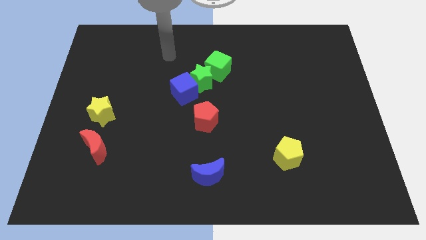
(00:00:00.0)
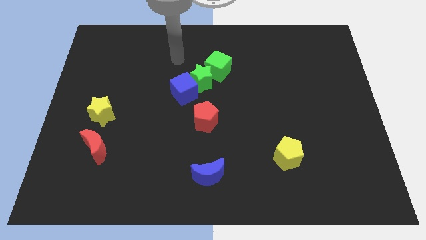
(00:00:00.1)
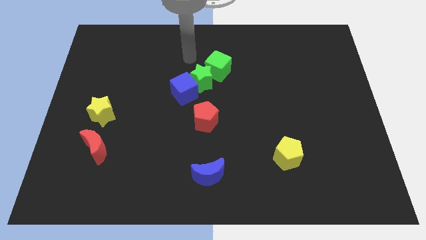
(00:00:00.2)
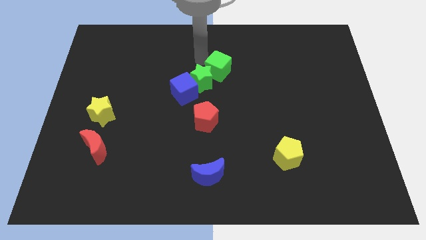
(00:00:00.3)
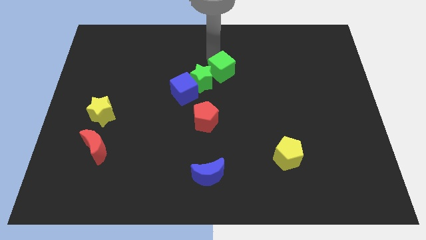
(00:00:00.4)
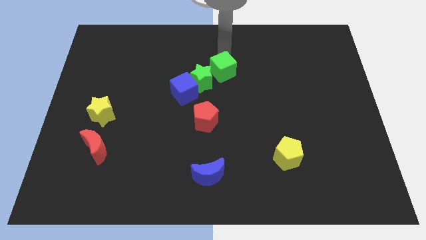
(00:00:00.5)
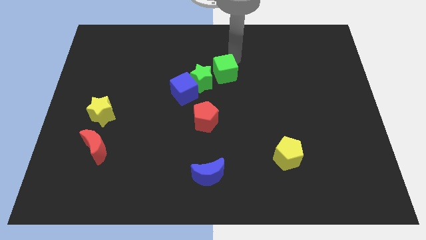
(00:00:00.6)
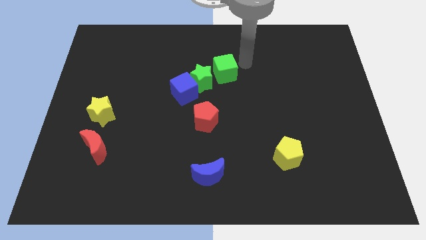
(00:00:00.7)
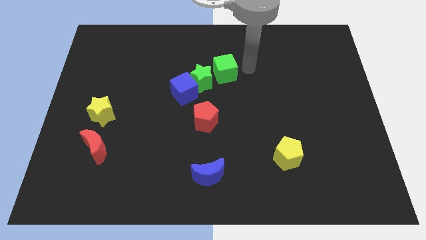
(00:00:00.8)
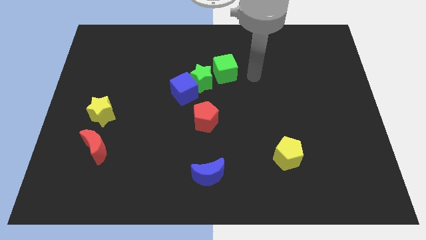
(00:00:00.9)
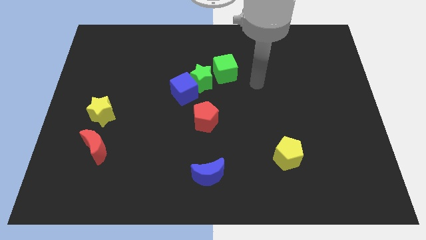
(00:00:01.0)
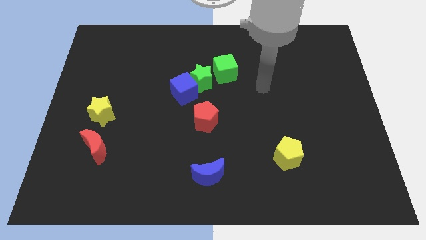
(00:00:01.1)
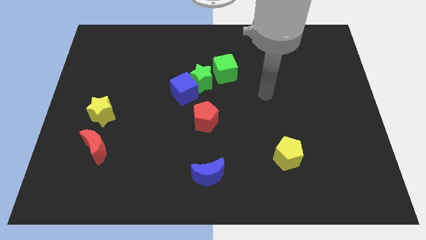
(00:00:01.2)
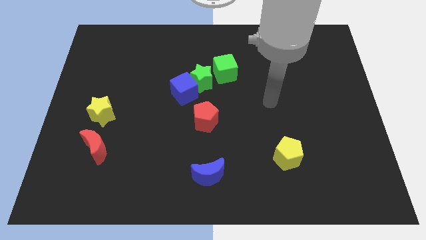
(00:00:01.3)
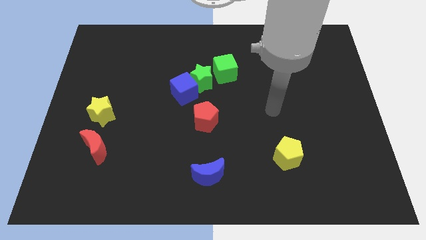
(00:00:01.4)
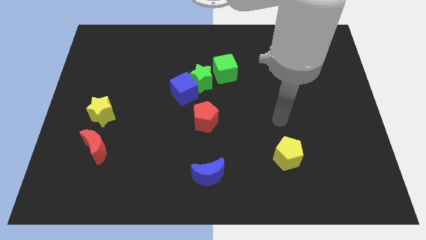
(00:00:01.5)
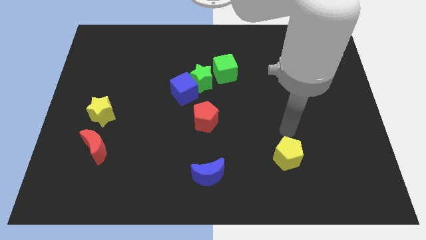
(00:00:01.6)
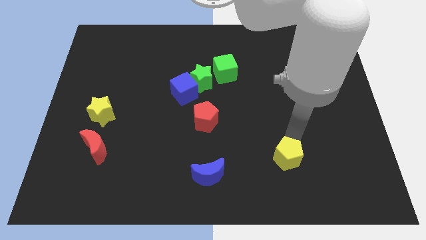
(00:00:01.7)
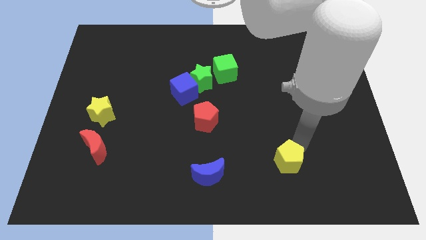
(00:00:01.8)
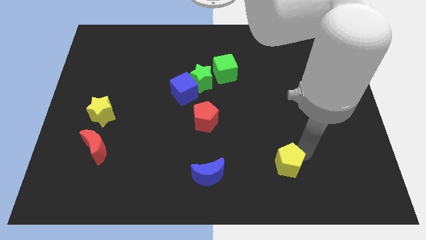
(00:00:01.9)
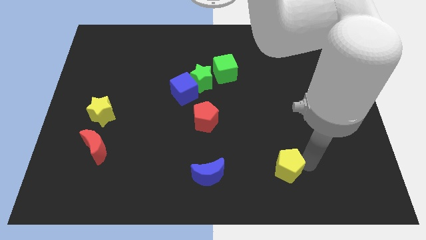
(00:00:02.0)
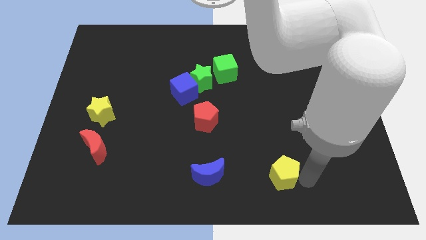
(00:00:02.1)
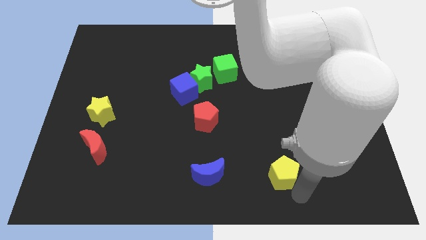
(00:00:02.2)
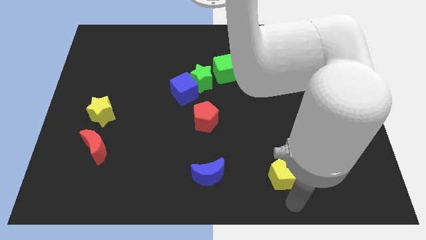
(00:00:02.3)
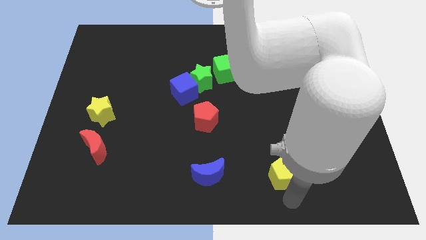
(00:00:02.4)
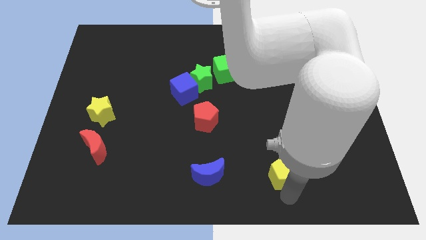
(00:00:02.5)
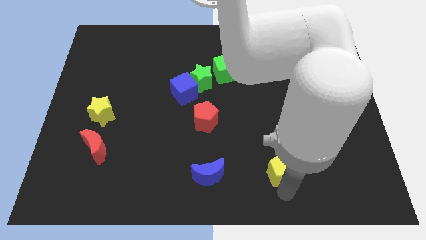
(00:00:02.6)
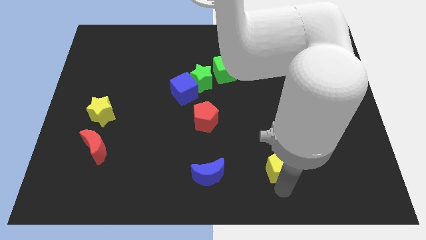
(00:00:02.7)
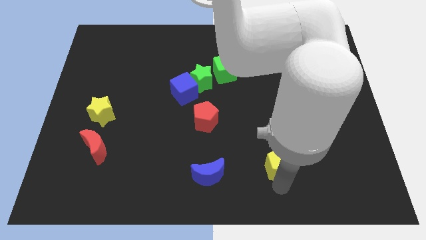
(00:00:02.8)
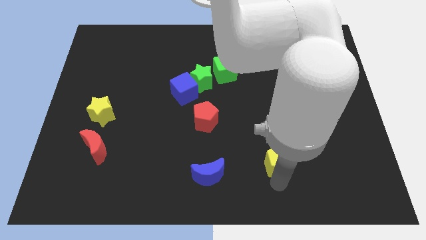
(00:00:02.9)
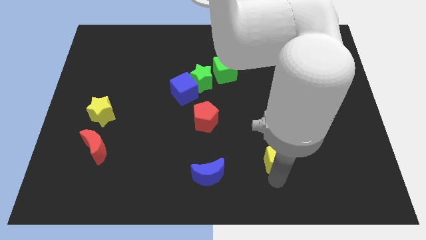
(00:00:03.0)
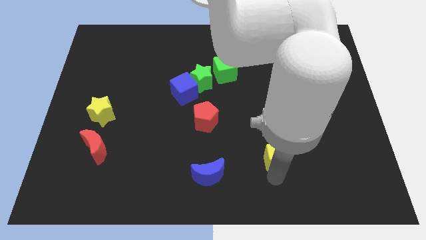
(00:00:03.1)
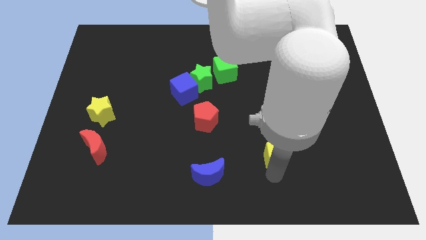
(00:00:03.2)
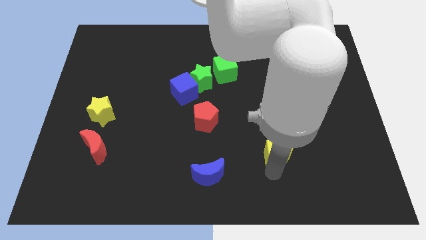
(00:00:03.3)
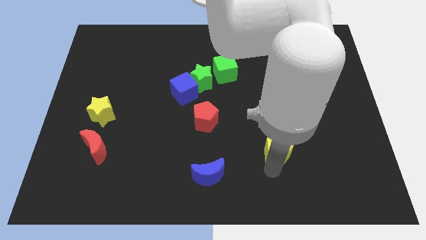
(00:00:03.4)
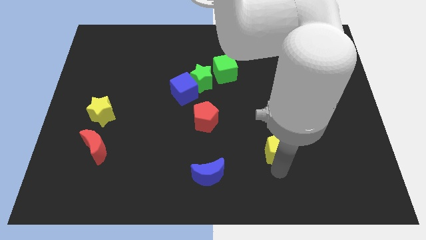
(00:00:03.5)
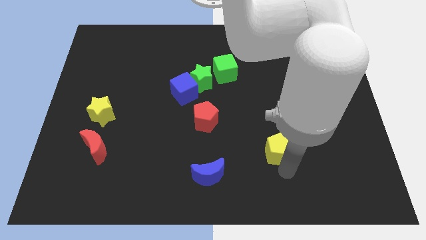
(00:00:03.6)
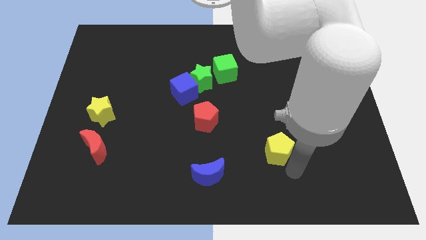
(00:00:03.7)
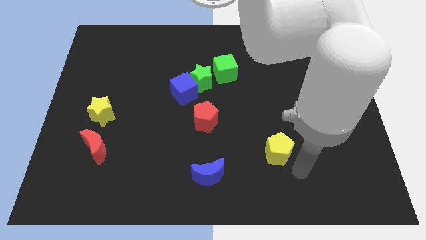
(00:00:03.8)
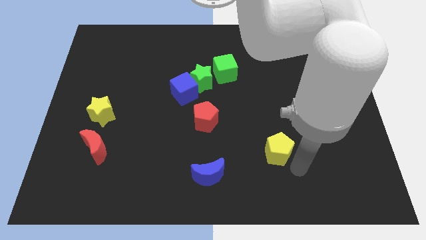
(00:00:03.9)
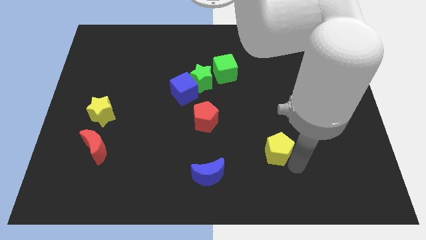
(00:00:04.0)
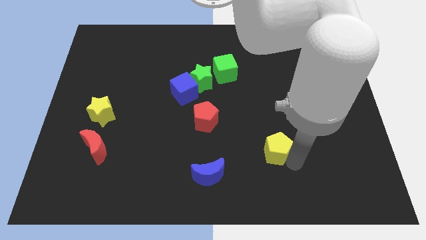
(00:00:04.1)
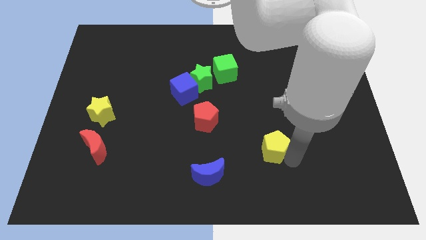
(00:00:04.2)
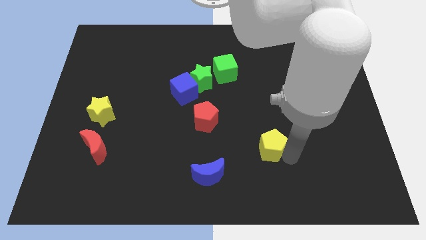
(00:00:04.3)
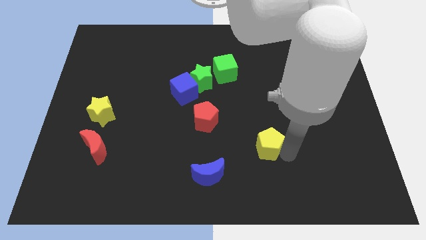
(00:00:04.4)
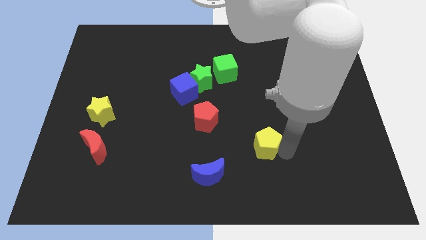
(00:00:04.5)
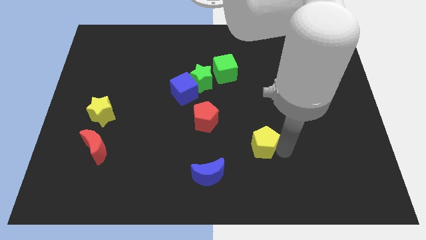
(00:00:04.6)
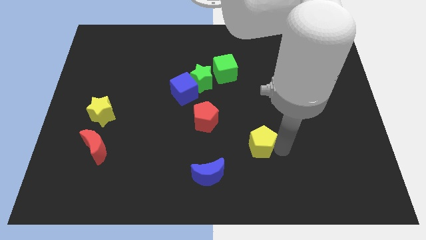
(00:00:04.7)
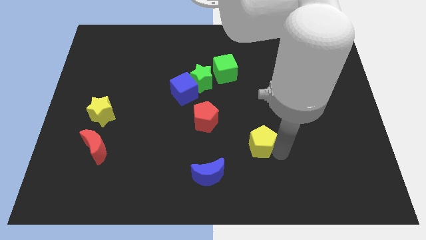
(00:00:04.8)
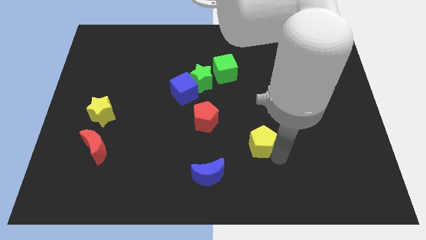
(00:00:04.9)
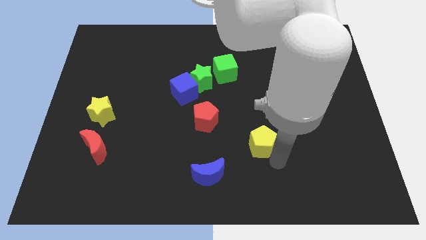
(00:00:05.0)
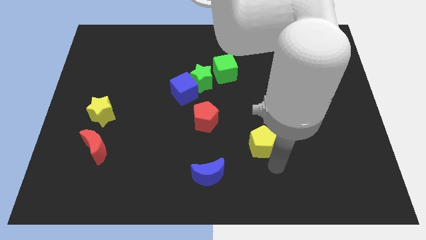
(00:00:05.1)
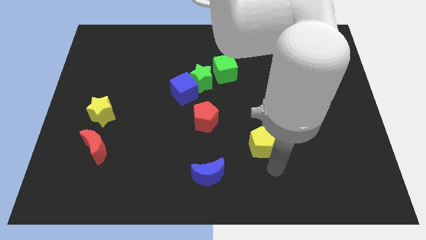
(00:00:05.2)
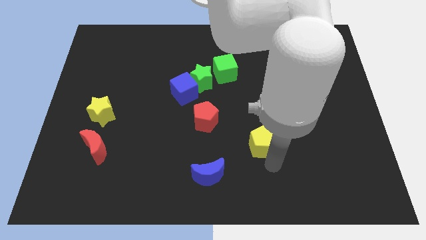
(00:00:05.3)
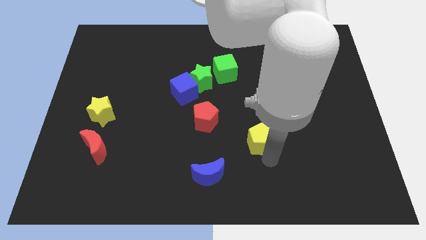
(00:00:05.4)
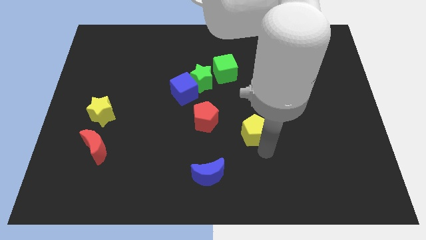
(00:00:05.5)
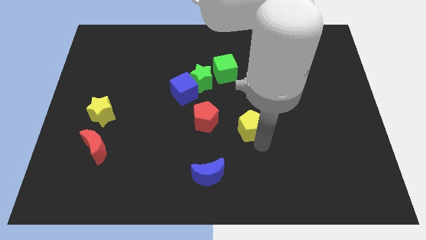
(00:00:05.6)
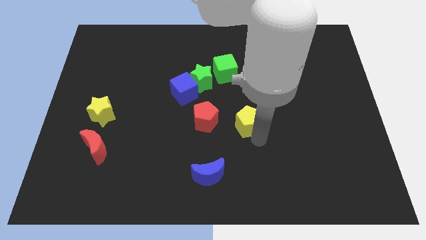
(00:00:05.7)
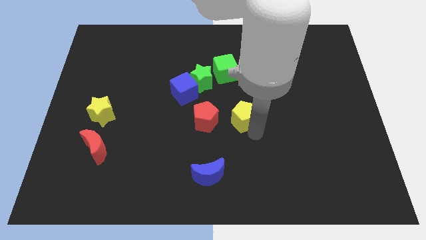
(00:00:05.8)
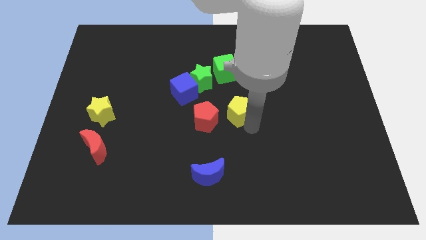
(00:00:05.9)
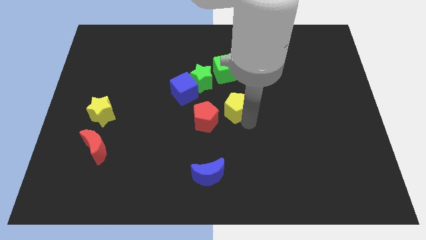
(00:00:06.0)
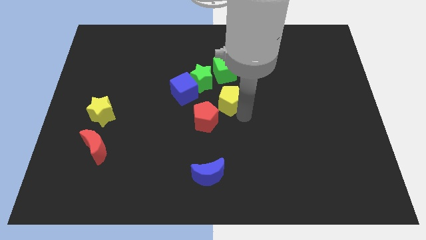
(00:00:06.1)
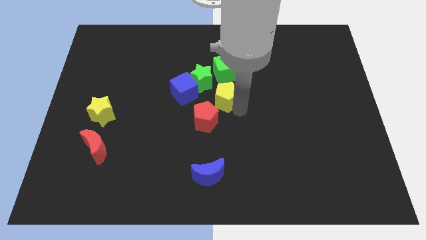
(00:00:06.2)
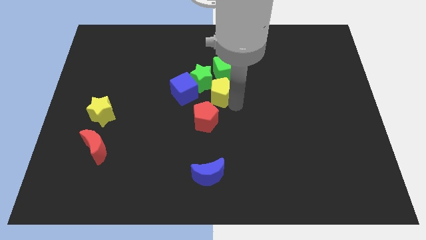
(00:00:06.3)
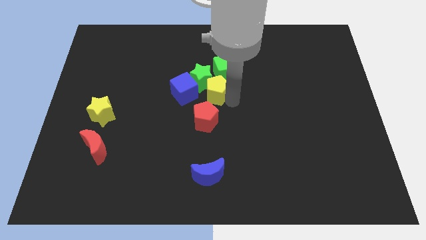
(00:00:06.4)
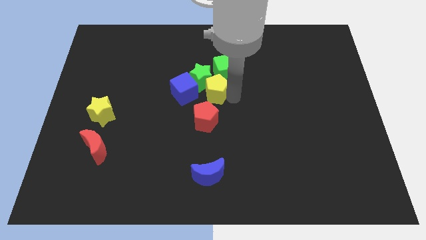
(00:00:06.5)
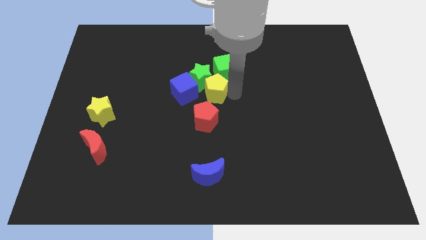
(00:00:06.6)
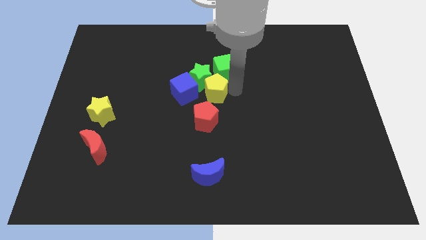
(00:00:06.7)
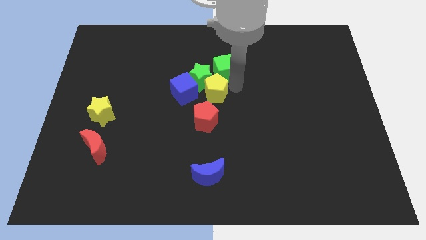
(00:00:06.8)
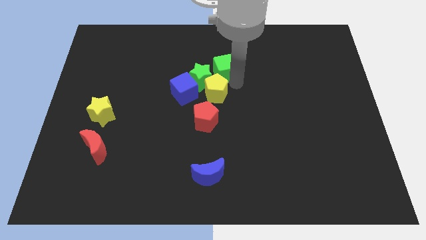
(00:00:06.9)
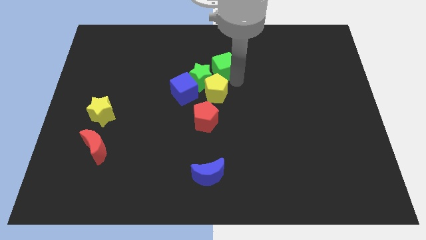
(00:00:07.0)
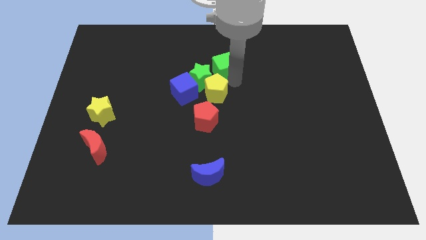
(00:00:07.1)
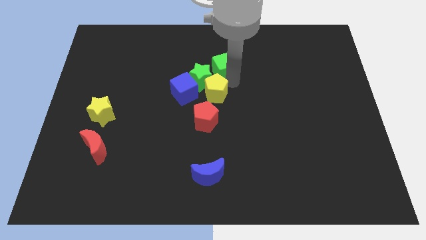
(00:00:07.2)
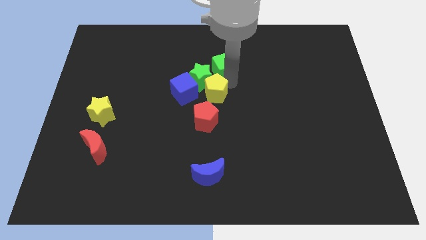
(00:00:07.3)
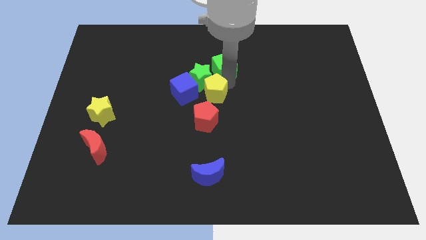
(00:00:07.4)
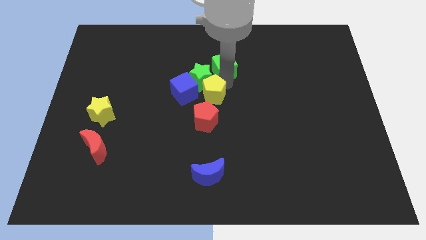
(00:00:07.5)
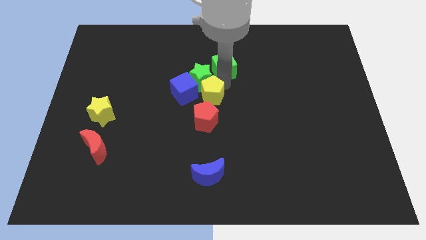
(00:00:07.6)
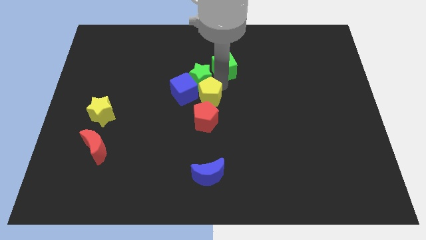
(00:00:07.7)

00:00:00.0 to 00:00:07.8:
move the yellow pentagon towards the blue cube
